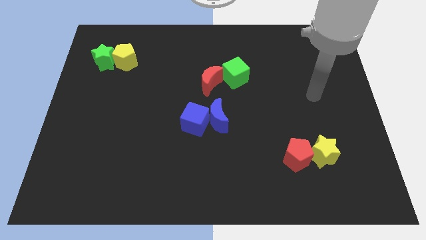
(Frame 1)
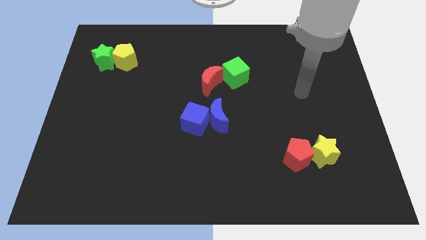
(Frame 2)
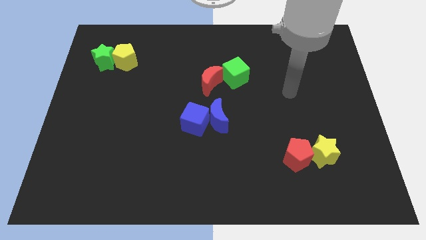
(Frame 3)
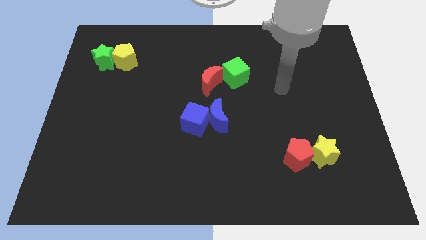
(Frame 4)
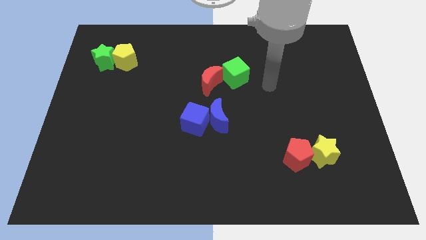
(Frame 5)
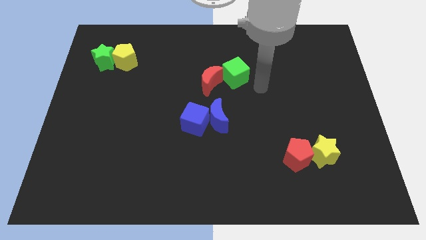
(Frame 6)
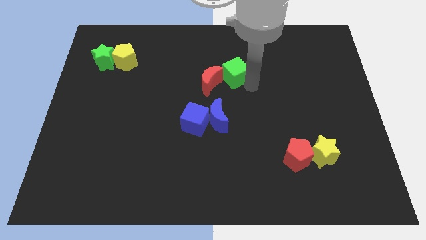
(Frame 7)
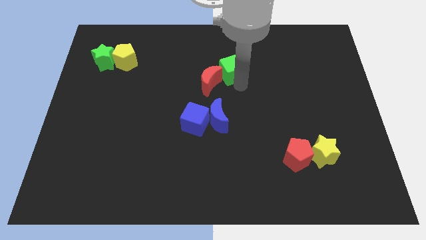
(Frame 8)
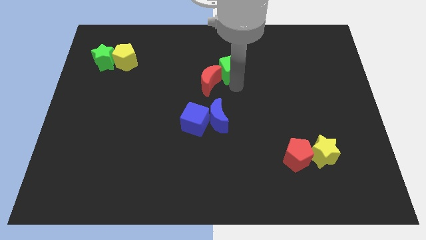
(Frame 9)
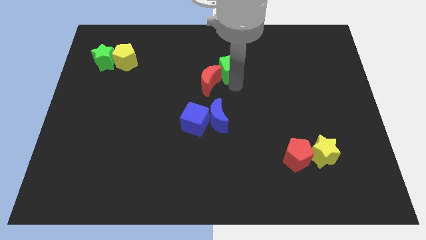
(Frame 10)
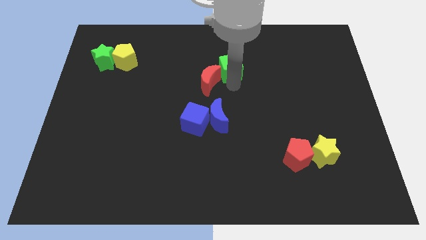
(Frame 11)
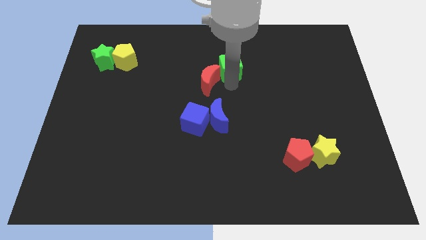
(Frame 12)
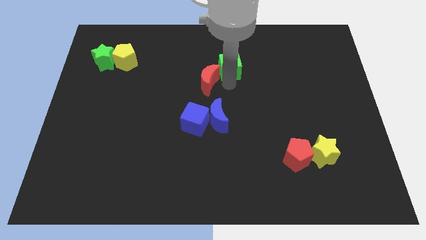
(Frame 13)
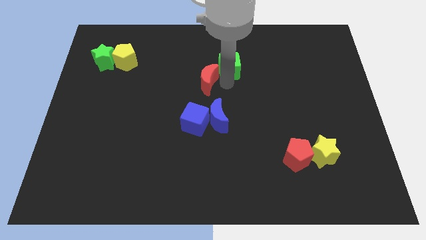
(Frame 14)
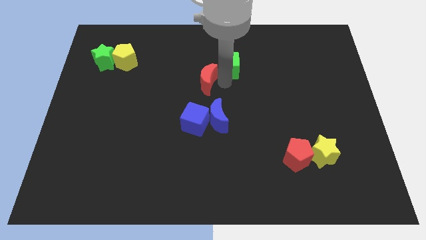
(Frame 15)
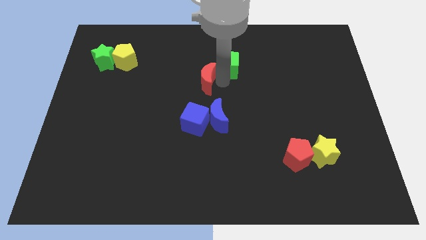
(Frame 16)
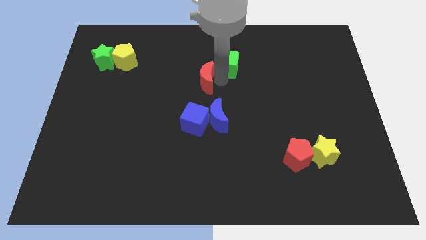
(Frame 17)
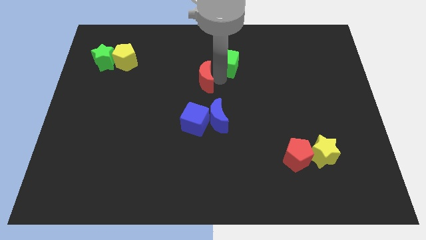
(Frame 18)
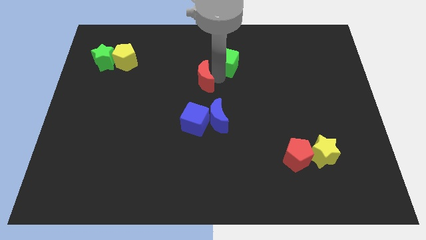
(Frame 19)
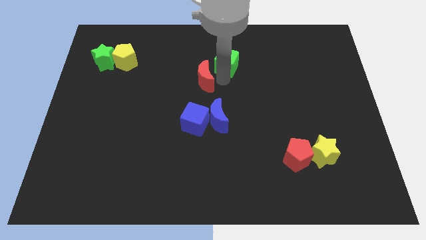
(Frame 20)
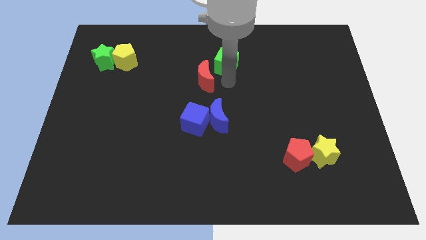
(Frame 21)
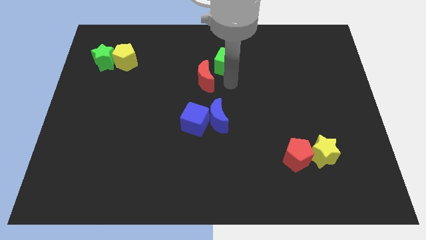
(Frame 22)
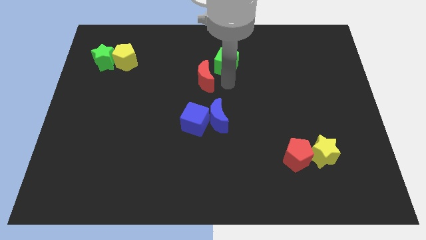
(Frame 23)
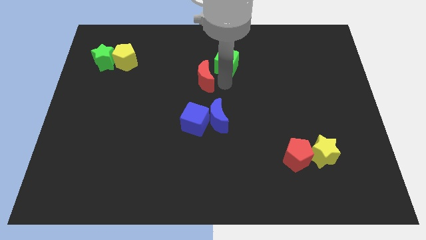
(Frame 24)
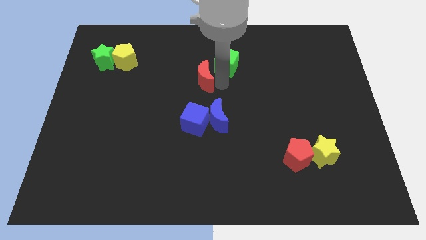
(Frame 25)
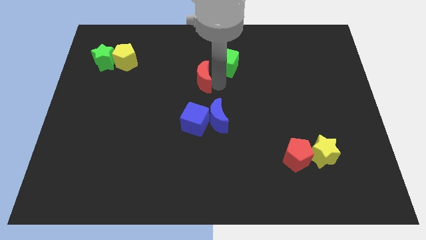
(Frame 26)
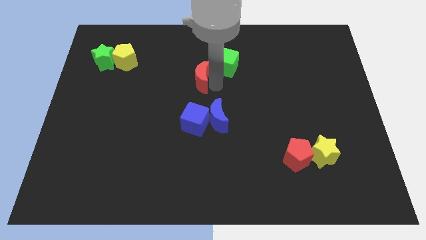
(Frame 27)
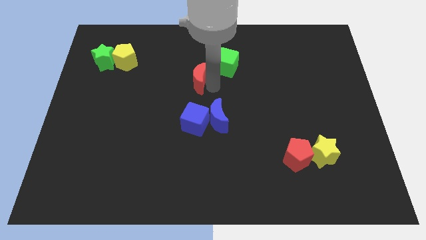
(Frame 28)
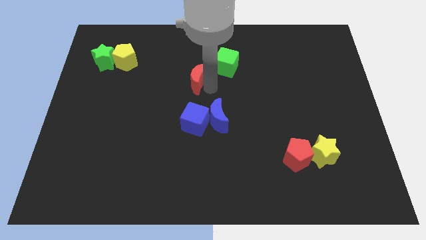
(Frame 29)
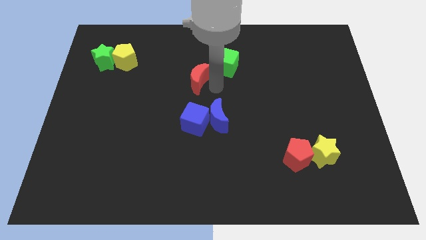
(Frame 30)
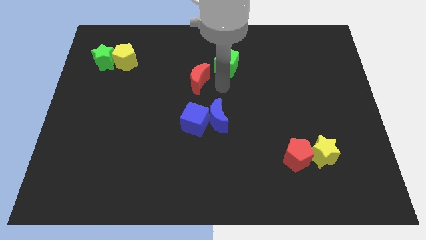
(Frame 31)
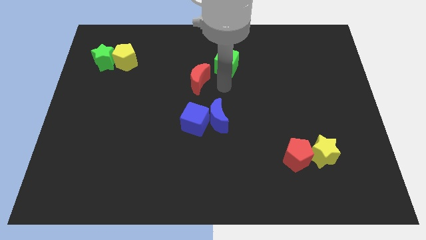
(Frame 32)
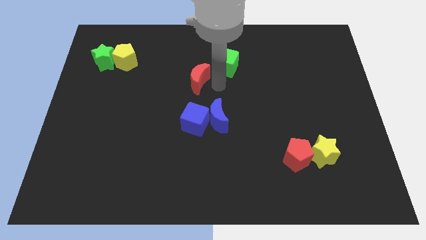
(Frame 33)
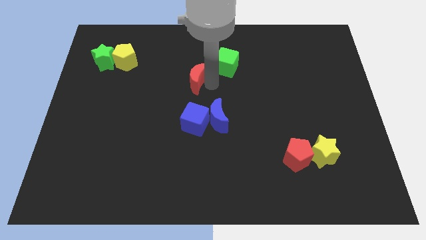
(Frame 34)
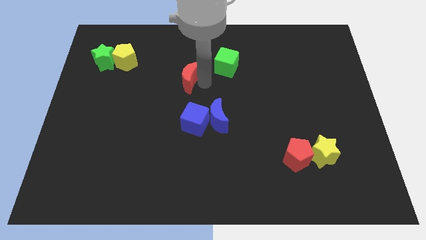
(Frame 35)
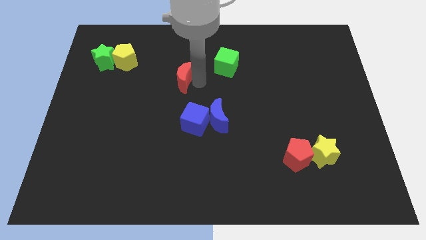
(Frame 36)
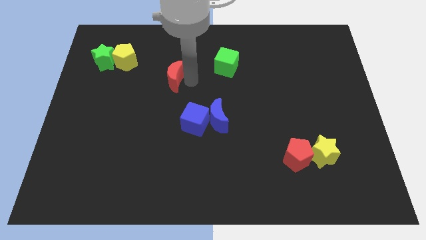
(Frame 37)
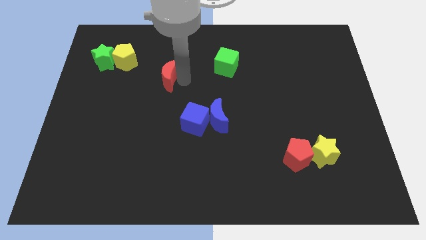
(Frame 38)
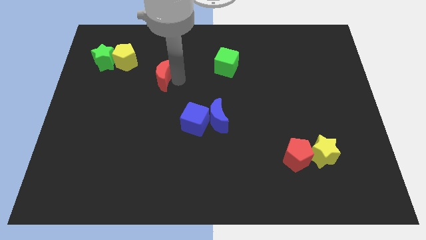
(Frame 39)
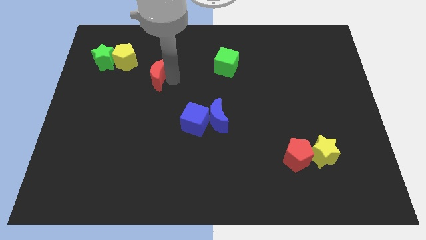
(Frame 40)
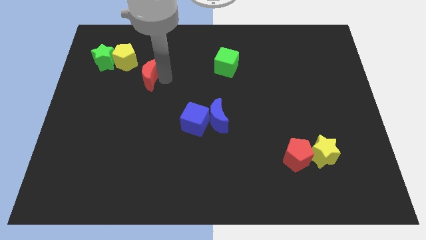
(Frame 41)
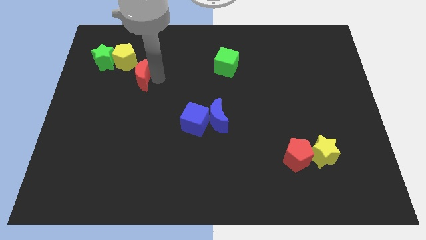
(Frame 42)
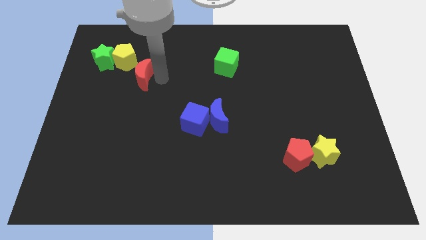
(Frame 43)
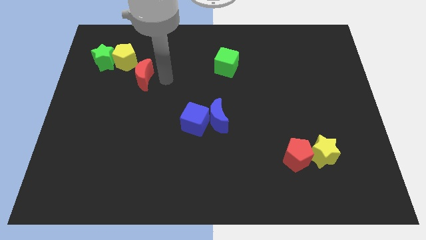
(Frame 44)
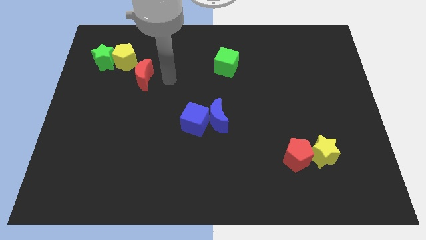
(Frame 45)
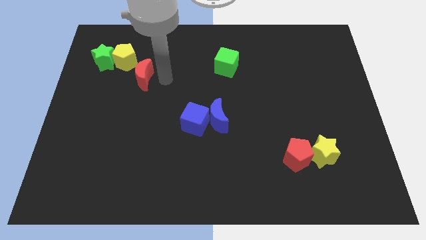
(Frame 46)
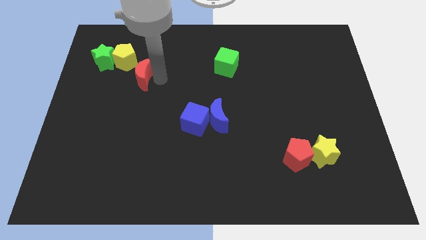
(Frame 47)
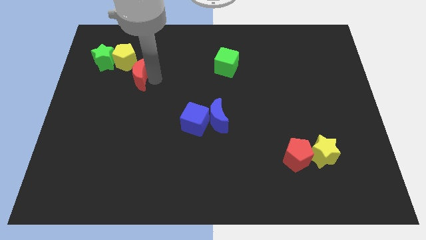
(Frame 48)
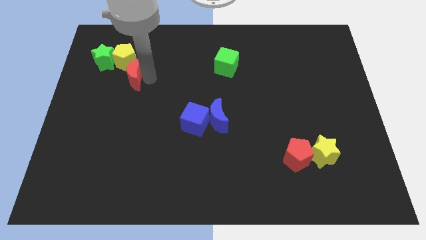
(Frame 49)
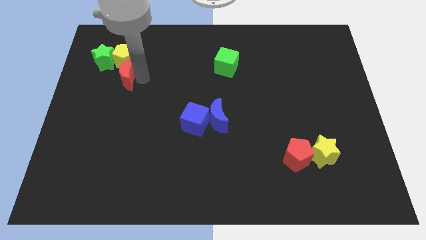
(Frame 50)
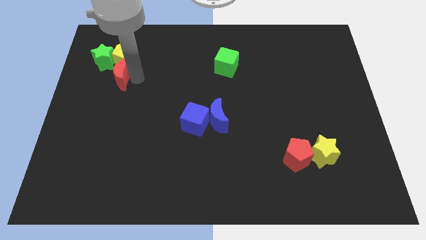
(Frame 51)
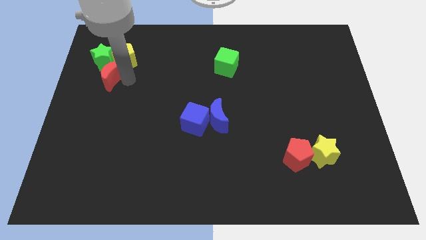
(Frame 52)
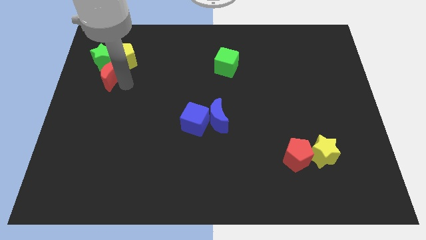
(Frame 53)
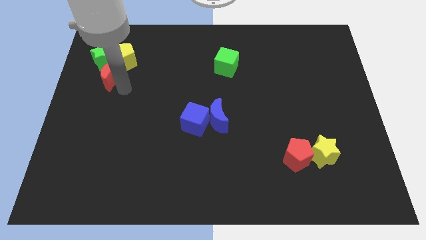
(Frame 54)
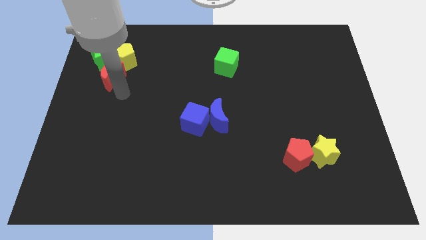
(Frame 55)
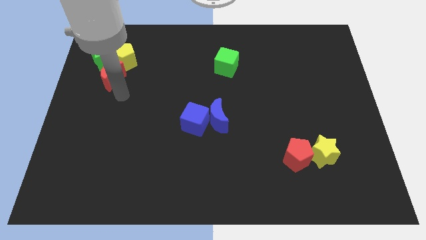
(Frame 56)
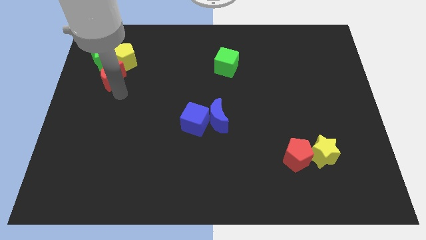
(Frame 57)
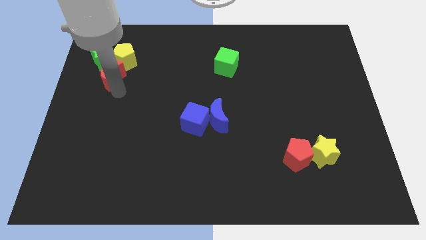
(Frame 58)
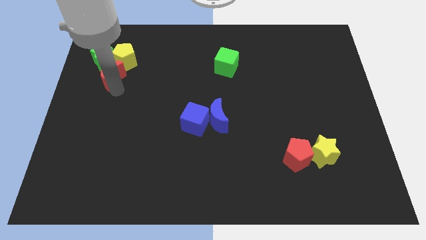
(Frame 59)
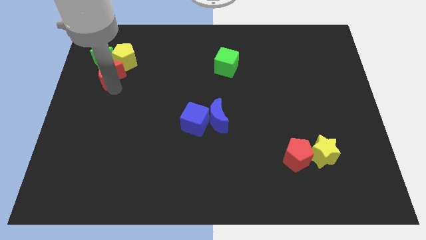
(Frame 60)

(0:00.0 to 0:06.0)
move the red moon close to the green star

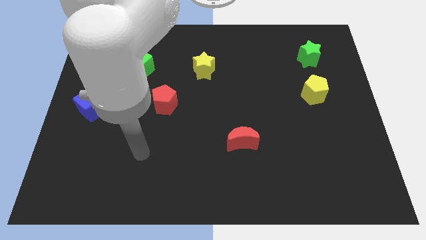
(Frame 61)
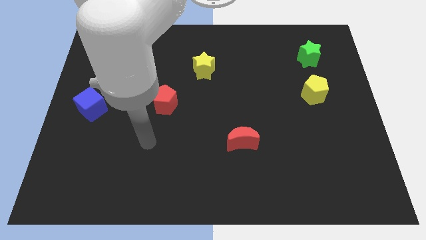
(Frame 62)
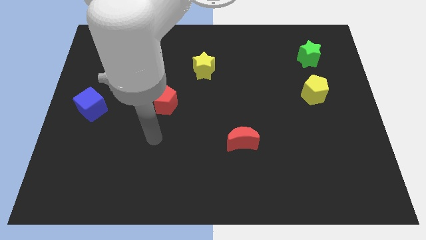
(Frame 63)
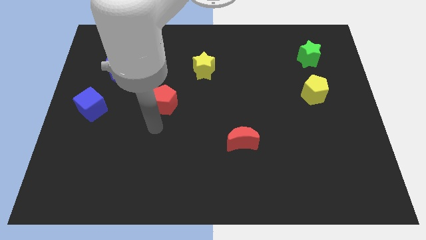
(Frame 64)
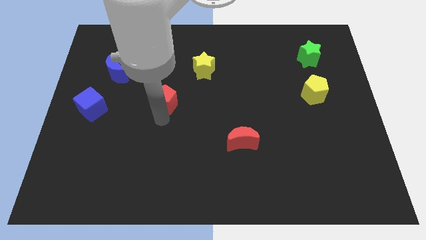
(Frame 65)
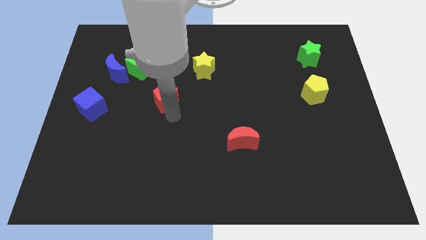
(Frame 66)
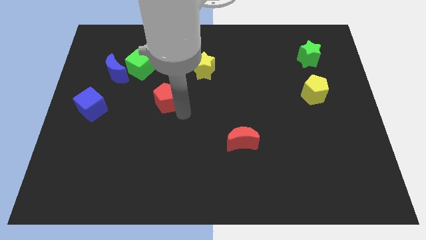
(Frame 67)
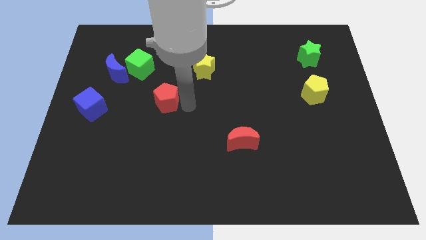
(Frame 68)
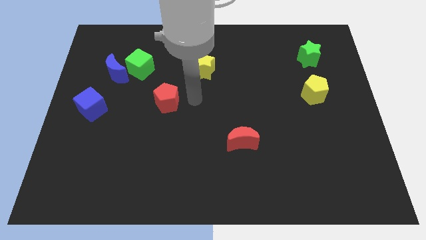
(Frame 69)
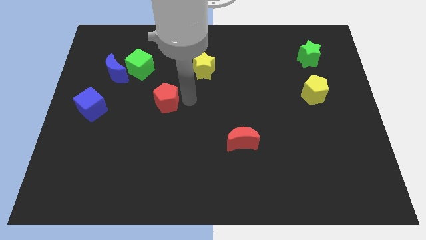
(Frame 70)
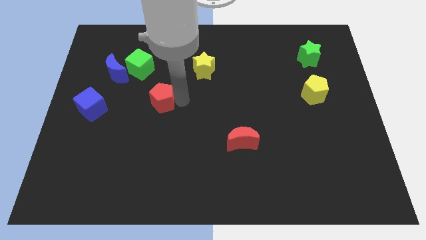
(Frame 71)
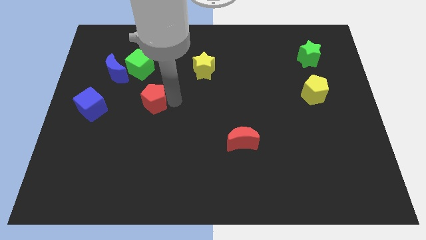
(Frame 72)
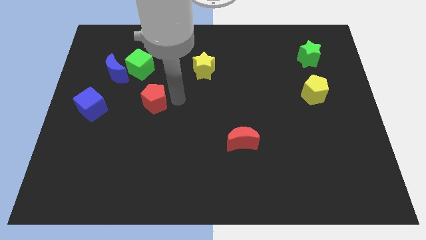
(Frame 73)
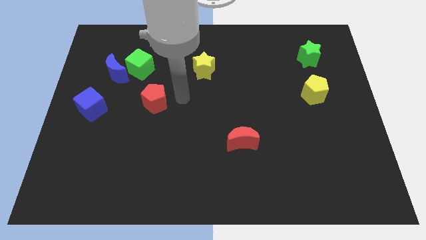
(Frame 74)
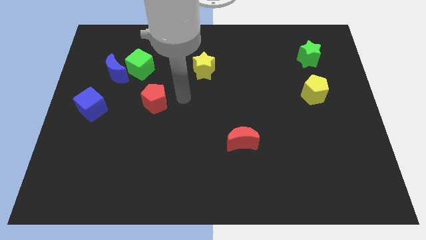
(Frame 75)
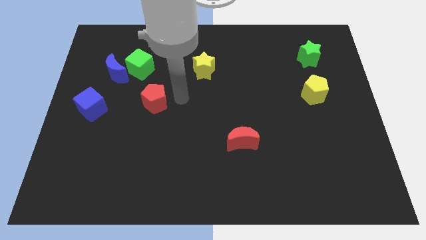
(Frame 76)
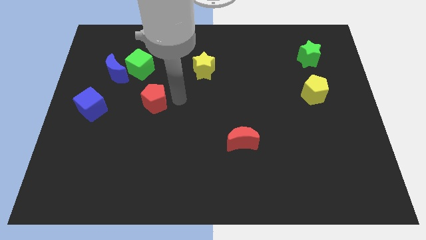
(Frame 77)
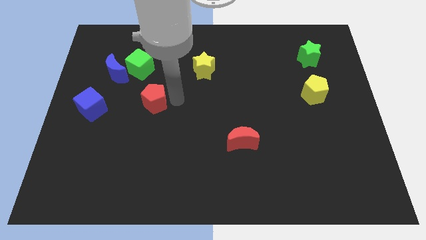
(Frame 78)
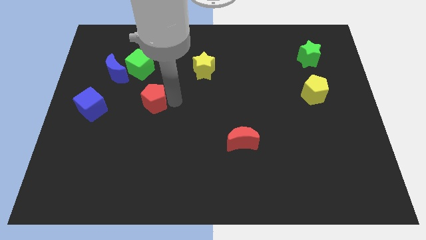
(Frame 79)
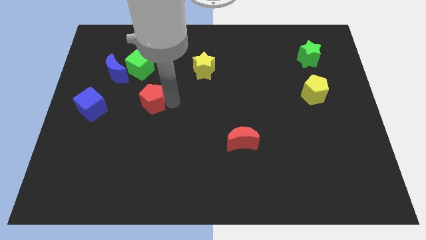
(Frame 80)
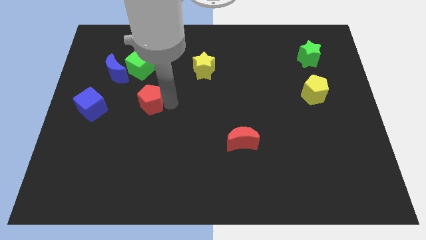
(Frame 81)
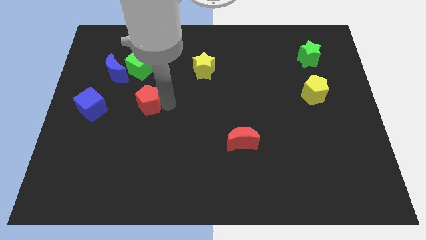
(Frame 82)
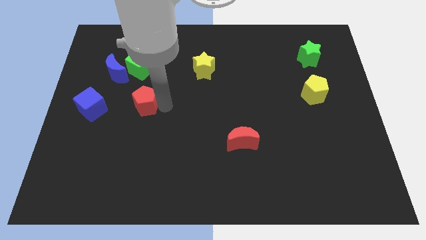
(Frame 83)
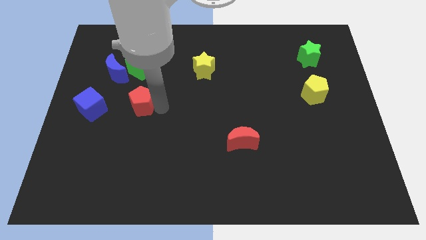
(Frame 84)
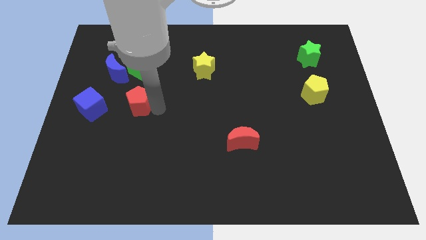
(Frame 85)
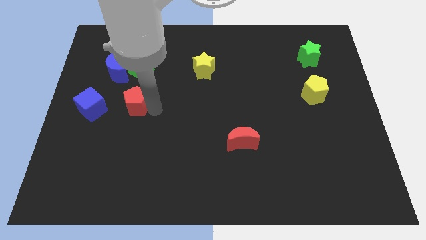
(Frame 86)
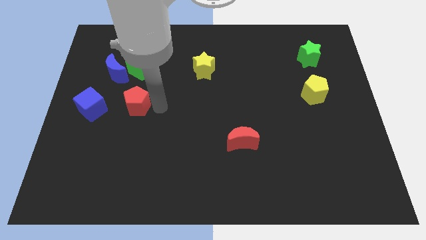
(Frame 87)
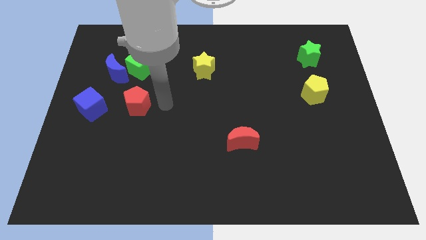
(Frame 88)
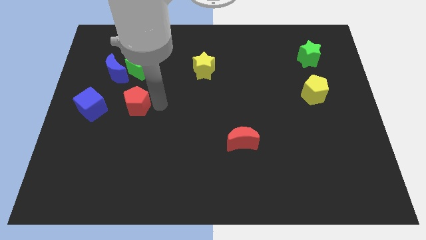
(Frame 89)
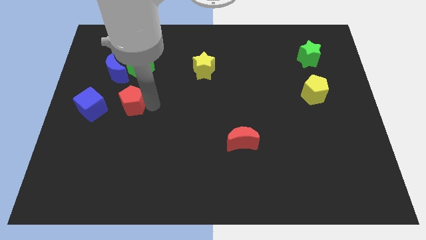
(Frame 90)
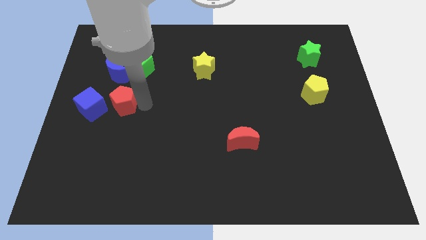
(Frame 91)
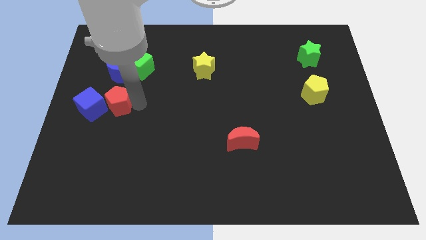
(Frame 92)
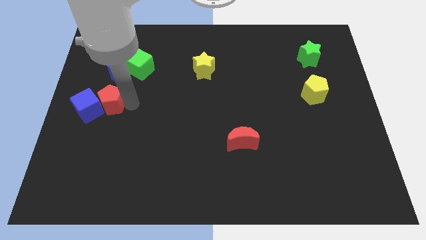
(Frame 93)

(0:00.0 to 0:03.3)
slide the red pentagon towards the blue cube
